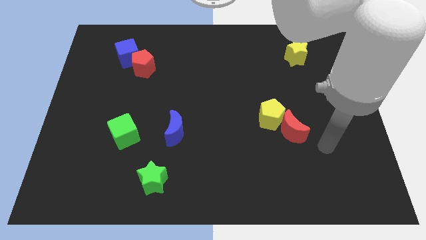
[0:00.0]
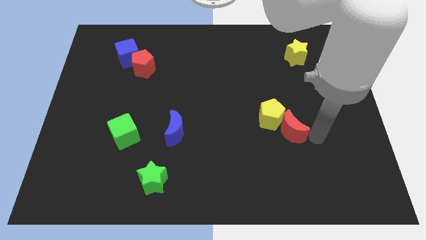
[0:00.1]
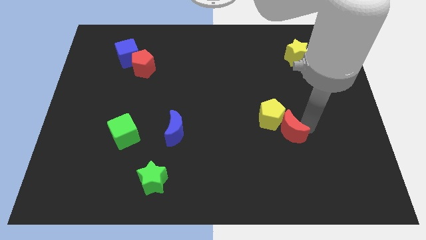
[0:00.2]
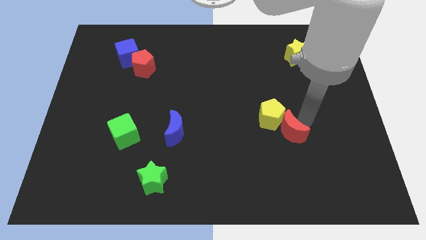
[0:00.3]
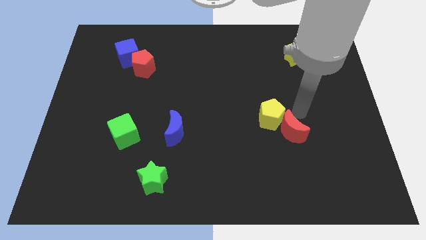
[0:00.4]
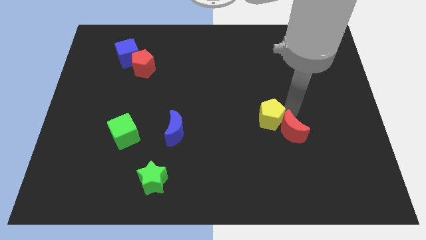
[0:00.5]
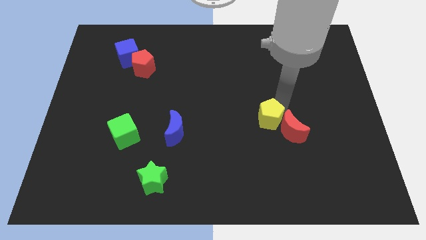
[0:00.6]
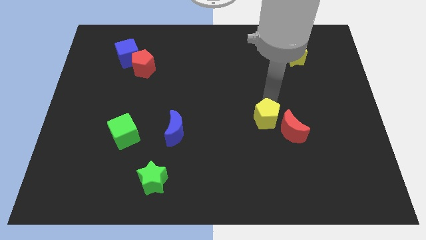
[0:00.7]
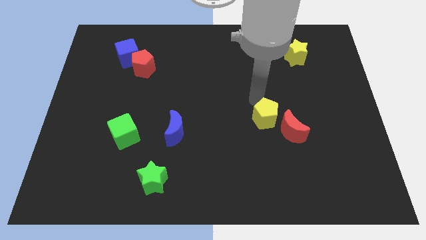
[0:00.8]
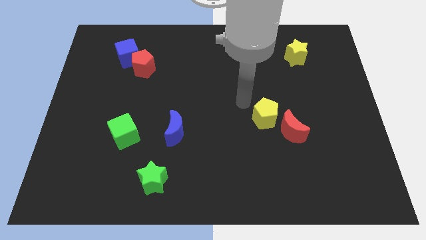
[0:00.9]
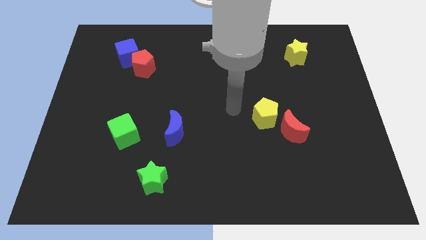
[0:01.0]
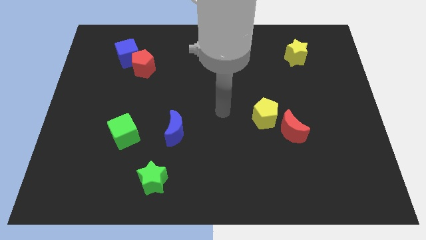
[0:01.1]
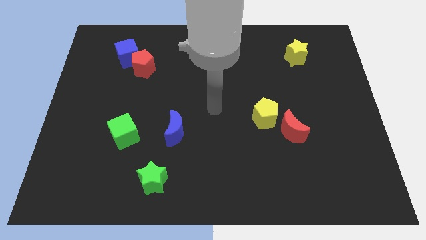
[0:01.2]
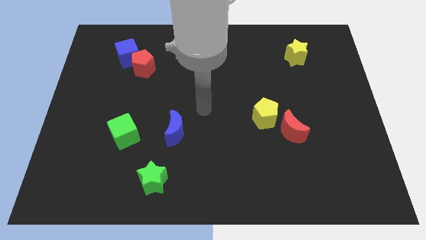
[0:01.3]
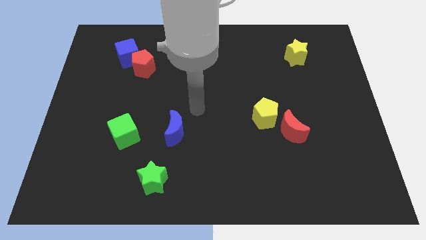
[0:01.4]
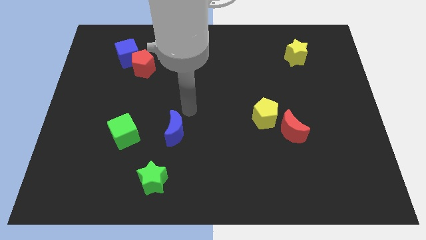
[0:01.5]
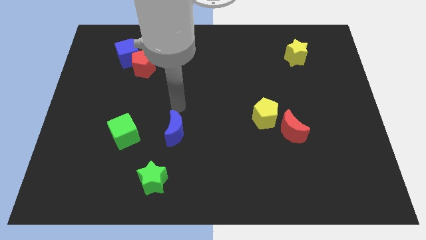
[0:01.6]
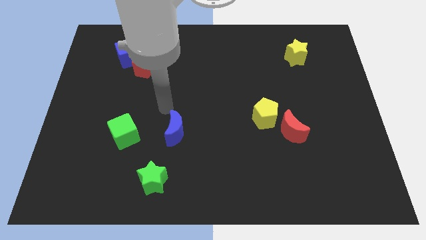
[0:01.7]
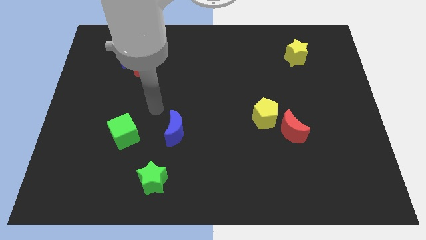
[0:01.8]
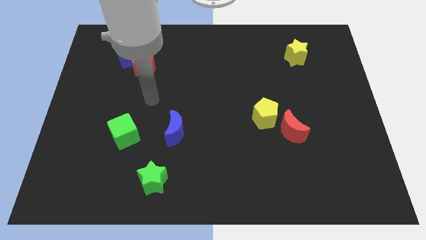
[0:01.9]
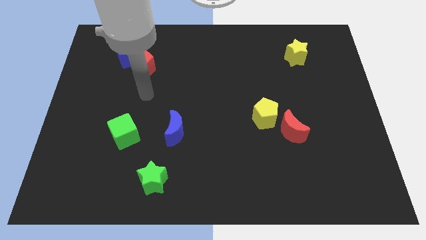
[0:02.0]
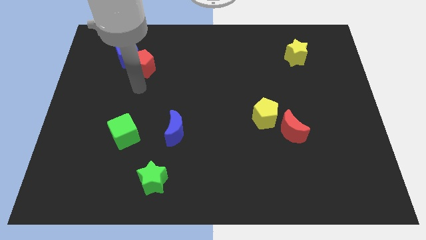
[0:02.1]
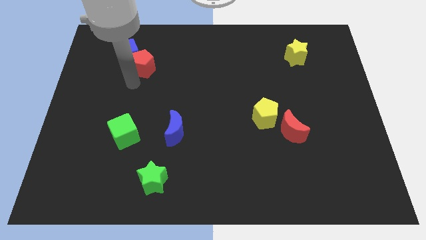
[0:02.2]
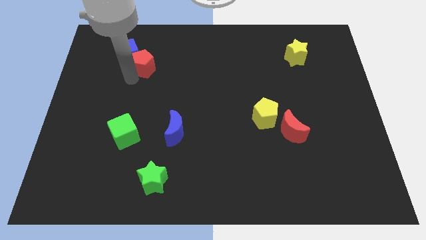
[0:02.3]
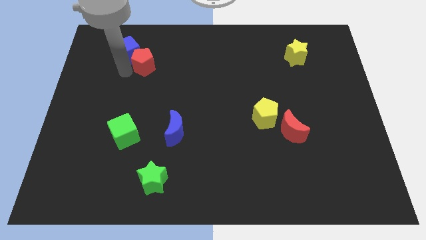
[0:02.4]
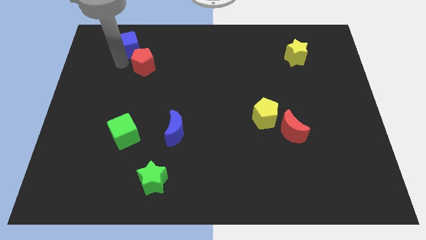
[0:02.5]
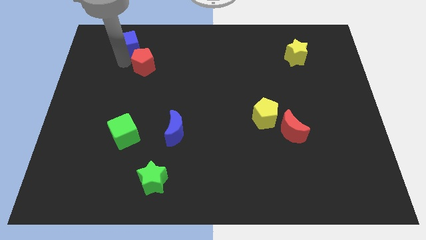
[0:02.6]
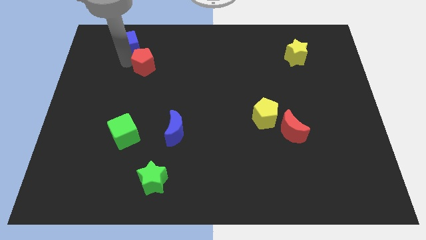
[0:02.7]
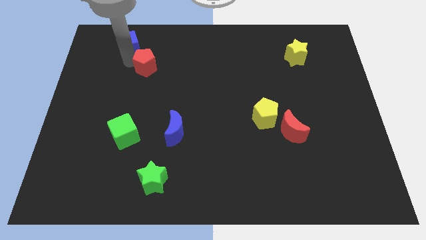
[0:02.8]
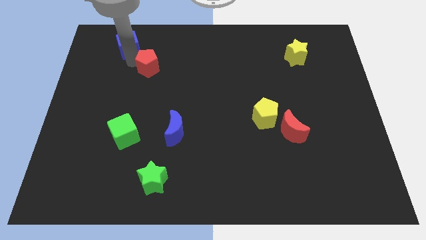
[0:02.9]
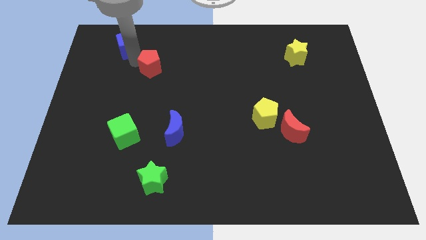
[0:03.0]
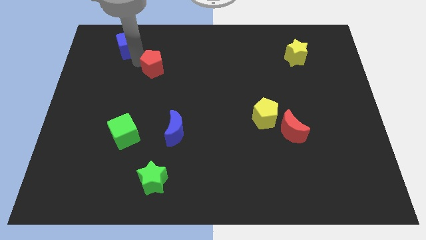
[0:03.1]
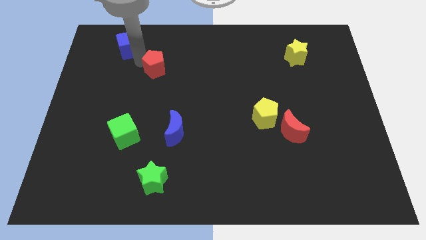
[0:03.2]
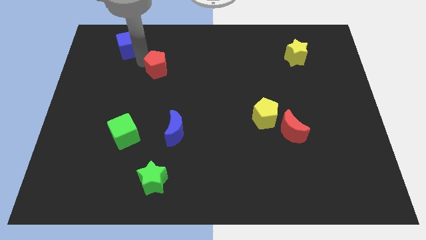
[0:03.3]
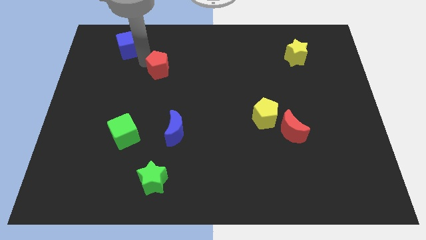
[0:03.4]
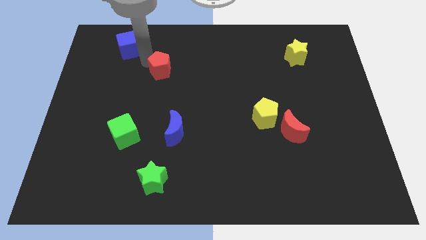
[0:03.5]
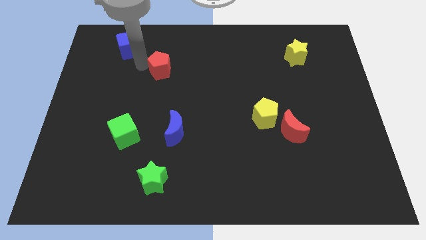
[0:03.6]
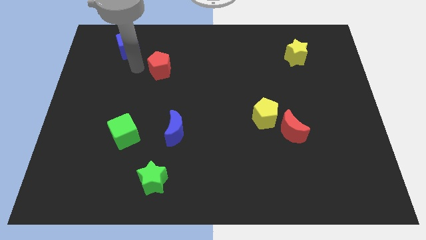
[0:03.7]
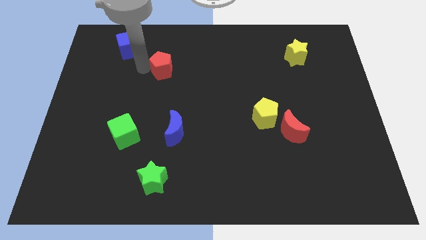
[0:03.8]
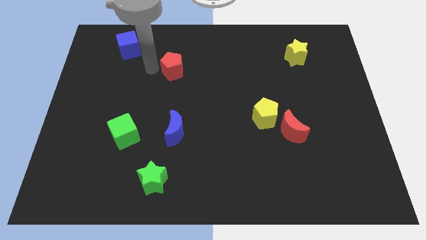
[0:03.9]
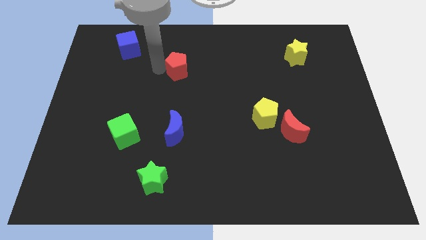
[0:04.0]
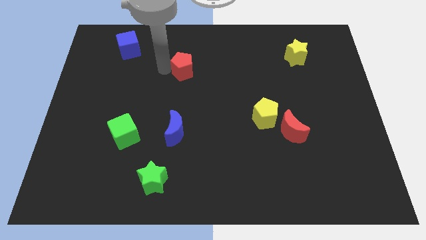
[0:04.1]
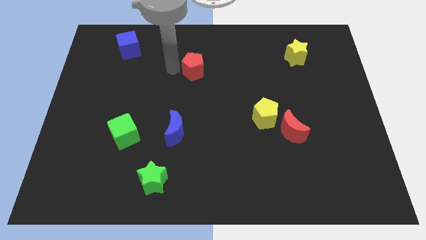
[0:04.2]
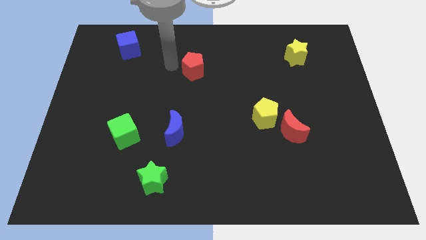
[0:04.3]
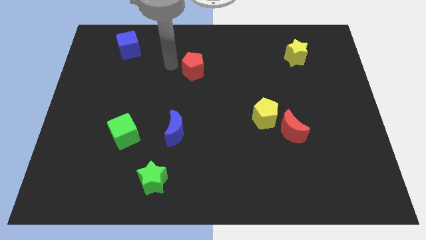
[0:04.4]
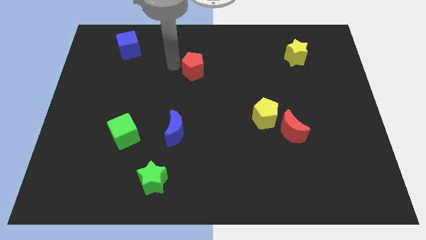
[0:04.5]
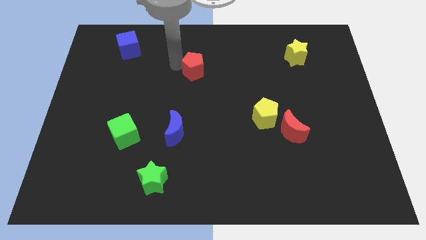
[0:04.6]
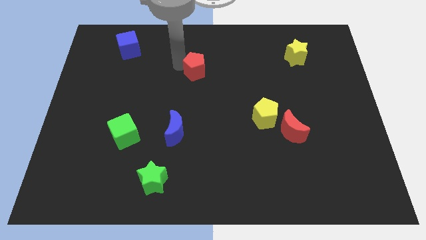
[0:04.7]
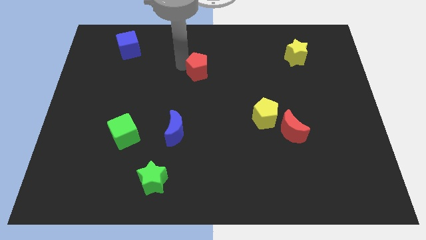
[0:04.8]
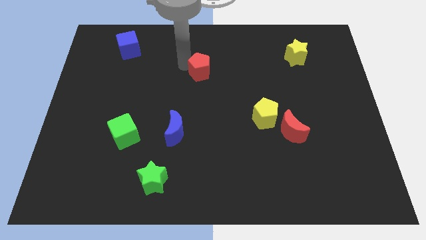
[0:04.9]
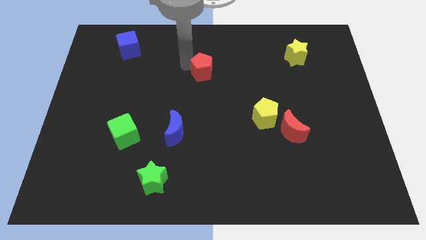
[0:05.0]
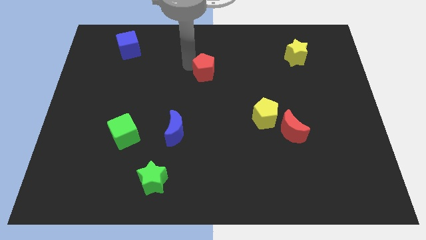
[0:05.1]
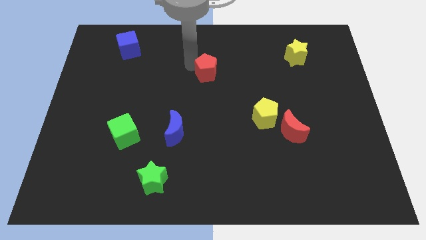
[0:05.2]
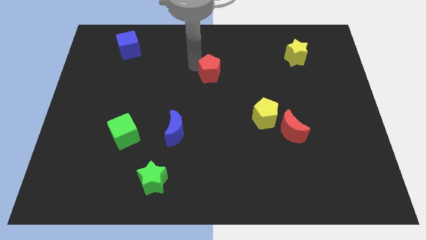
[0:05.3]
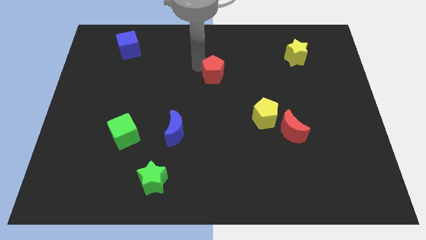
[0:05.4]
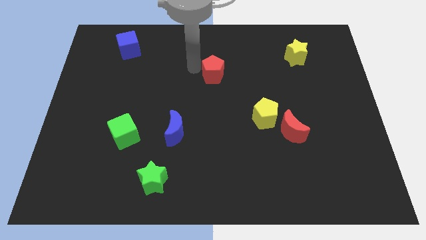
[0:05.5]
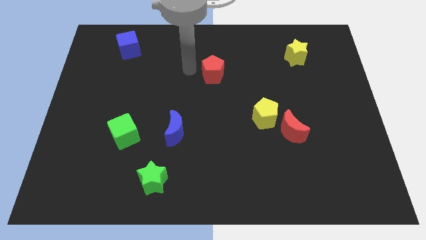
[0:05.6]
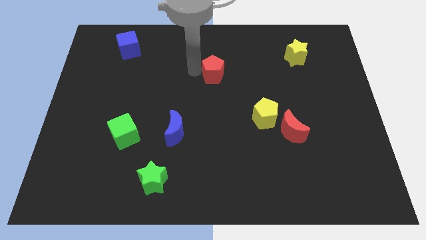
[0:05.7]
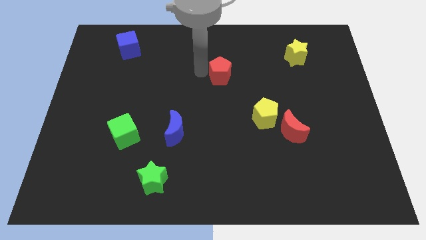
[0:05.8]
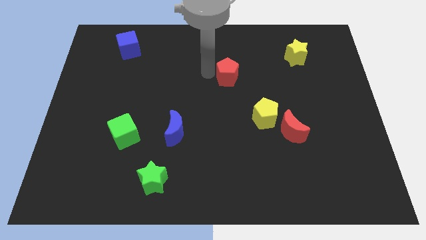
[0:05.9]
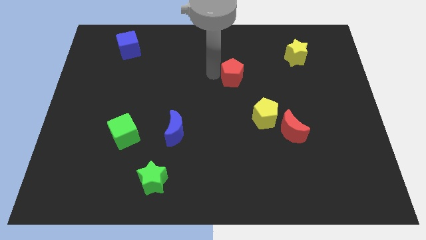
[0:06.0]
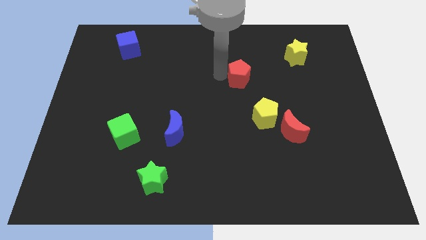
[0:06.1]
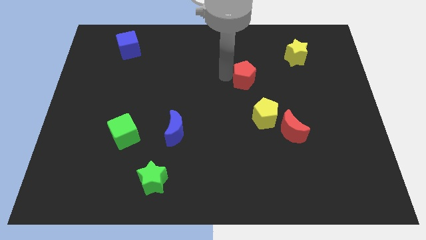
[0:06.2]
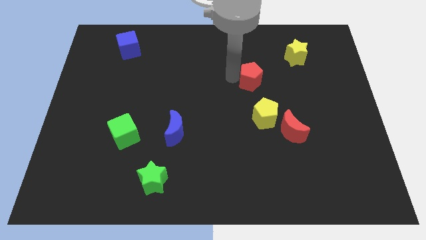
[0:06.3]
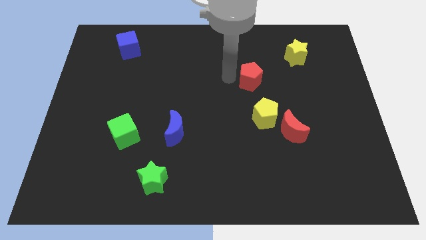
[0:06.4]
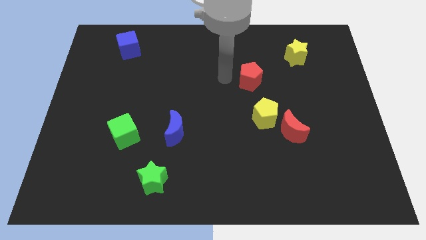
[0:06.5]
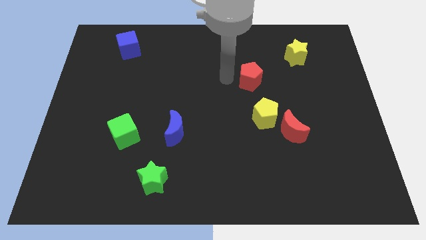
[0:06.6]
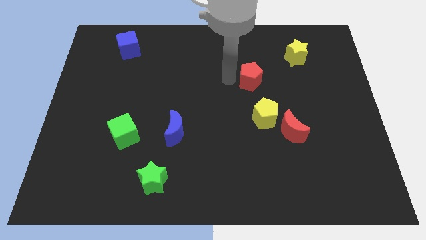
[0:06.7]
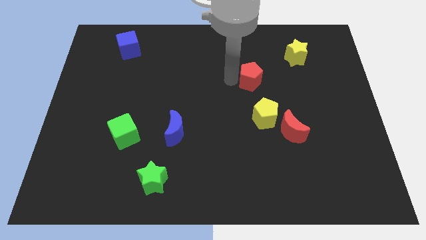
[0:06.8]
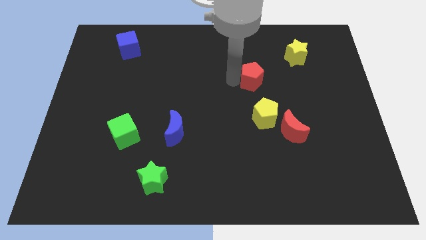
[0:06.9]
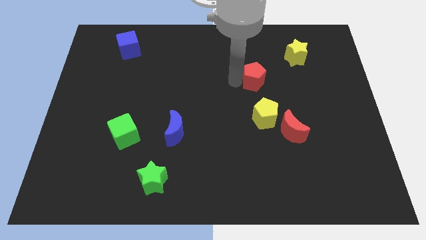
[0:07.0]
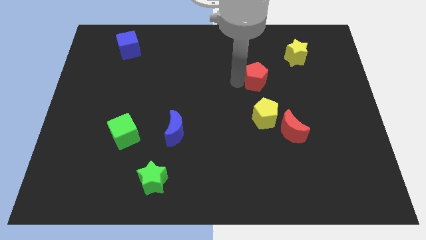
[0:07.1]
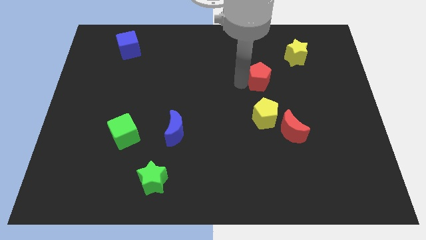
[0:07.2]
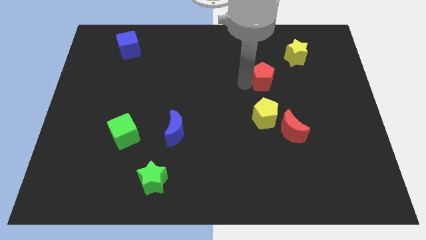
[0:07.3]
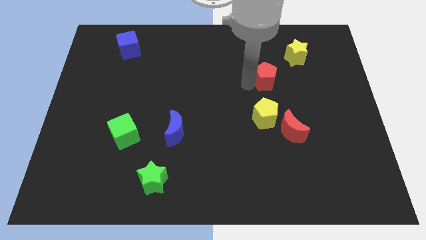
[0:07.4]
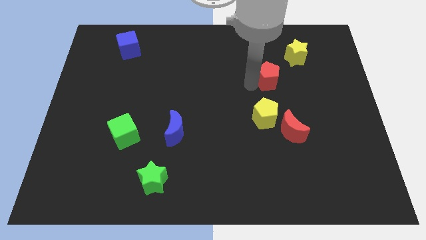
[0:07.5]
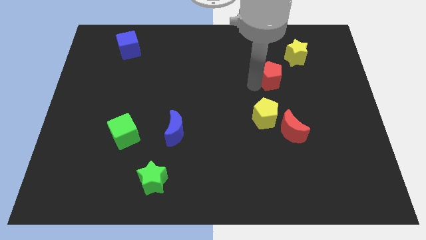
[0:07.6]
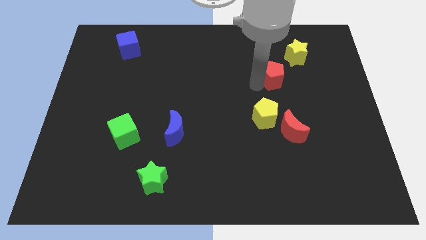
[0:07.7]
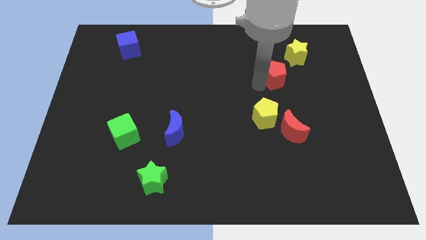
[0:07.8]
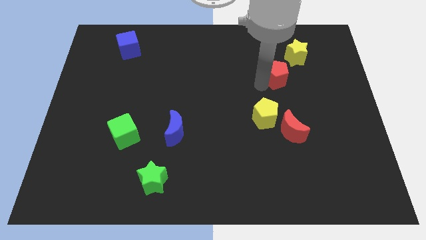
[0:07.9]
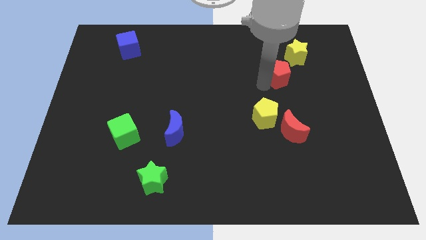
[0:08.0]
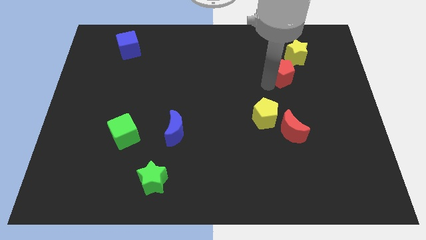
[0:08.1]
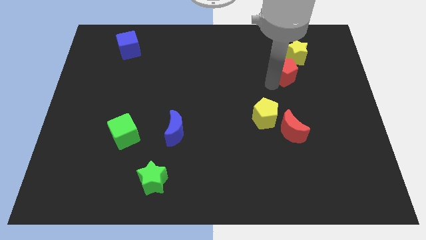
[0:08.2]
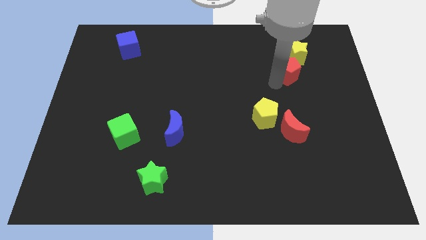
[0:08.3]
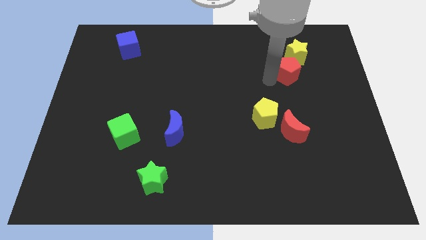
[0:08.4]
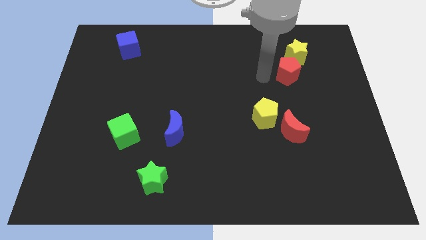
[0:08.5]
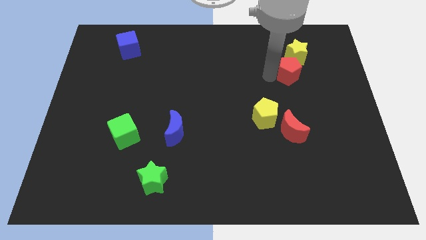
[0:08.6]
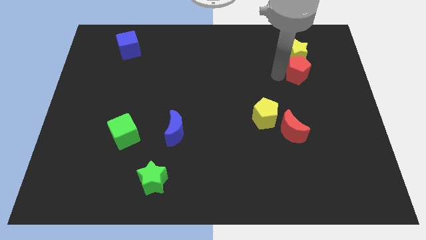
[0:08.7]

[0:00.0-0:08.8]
slide the red pentagon to the bottom right of the yellow star
